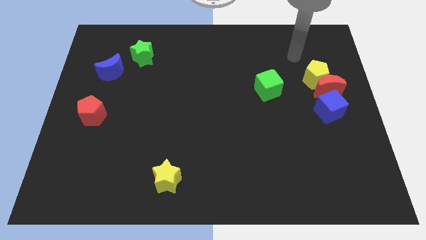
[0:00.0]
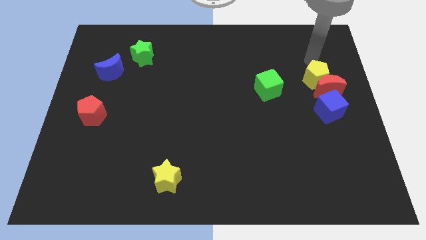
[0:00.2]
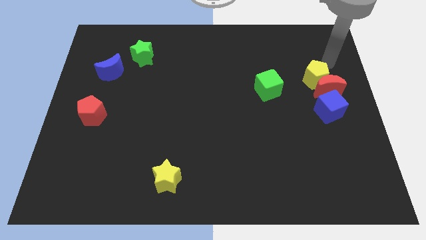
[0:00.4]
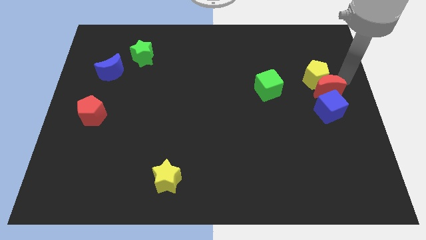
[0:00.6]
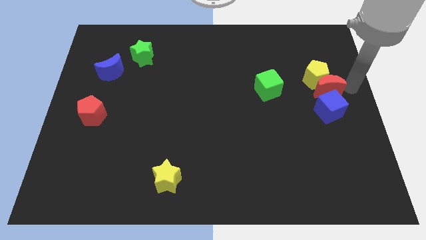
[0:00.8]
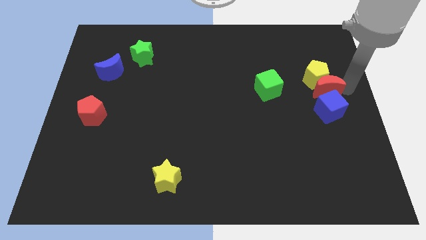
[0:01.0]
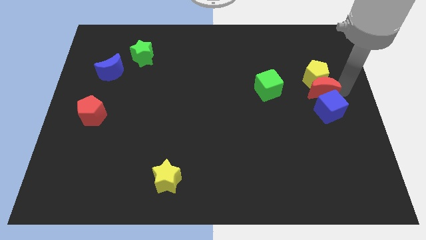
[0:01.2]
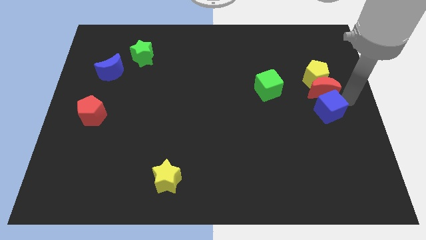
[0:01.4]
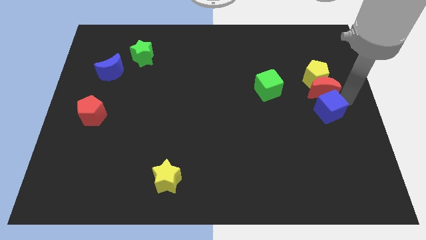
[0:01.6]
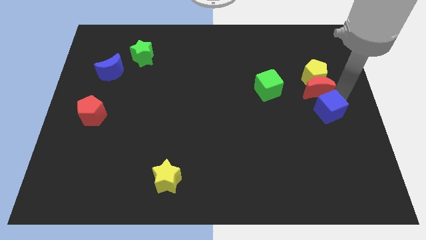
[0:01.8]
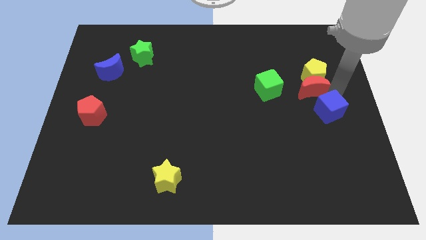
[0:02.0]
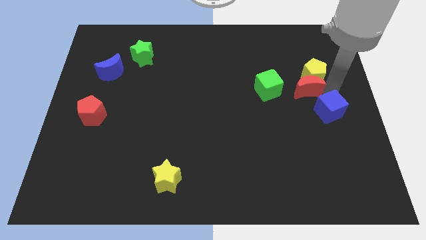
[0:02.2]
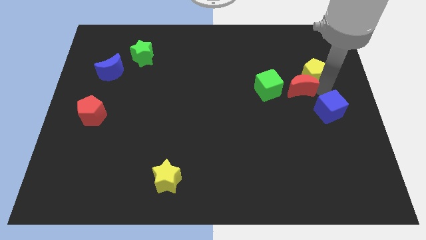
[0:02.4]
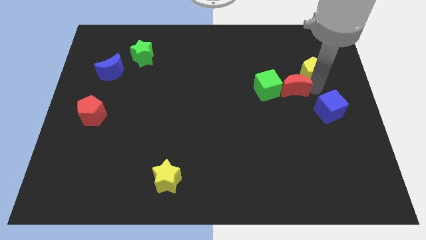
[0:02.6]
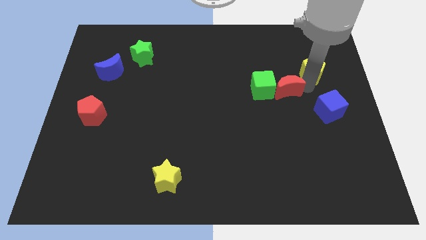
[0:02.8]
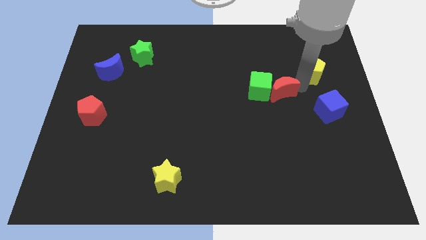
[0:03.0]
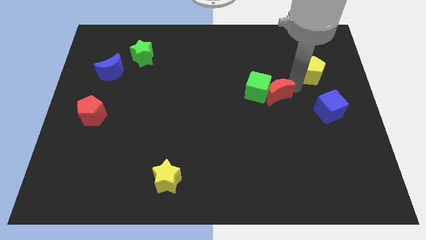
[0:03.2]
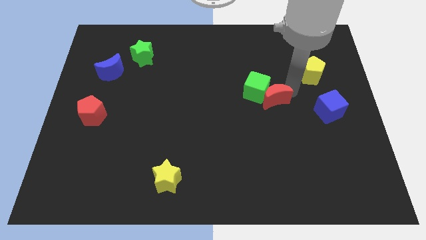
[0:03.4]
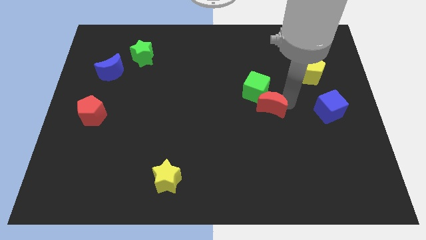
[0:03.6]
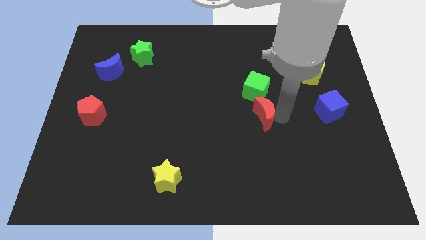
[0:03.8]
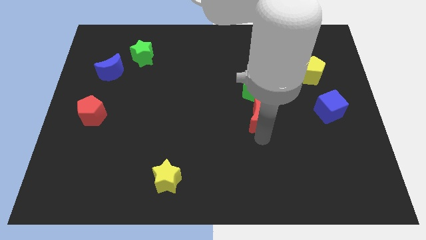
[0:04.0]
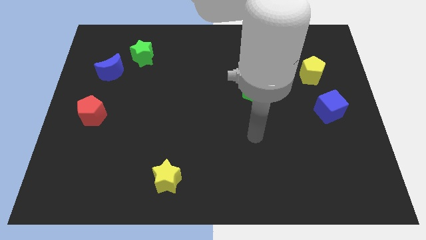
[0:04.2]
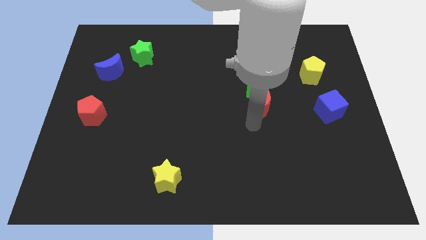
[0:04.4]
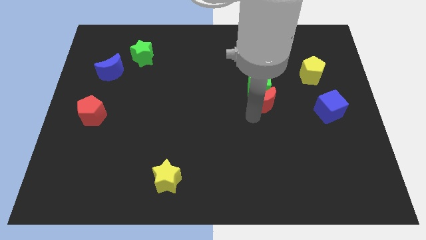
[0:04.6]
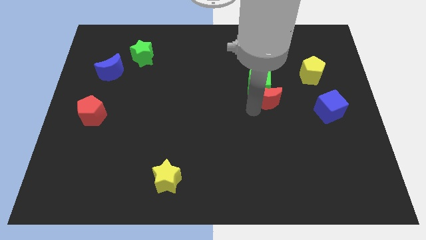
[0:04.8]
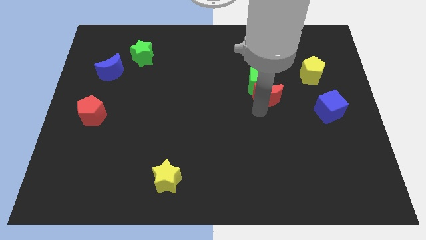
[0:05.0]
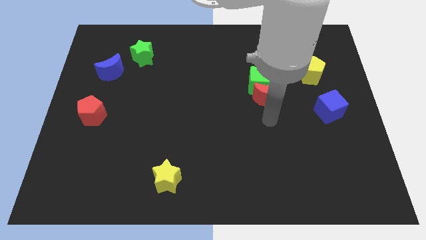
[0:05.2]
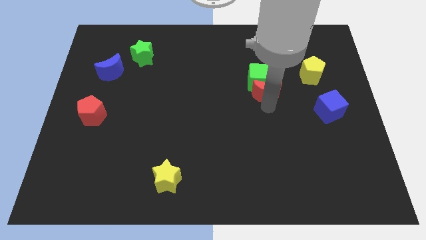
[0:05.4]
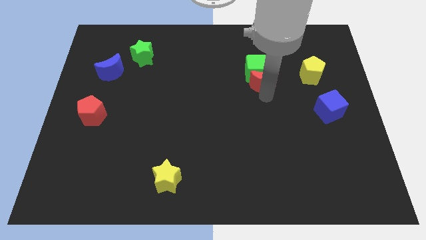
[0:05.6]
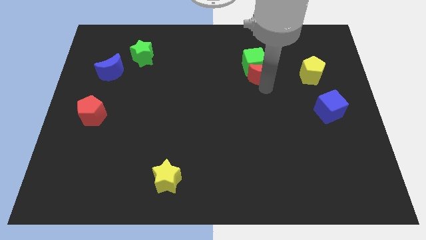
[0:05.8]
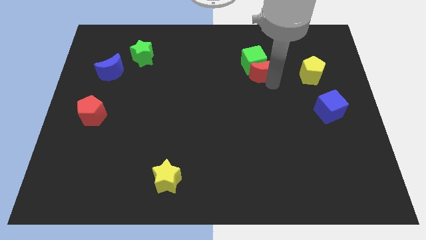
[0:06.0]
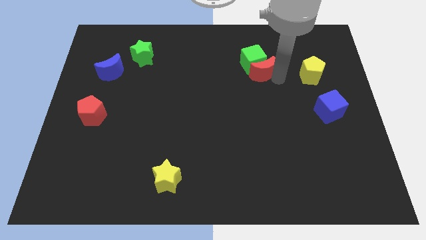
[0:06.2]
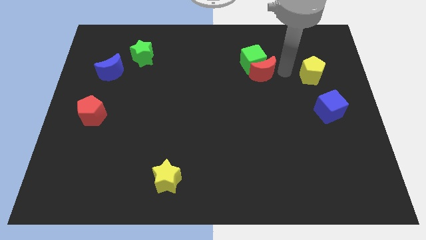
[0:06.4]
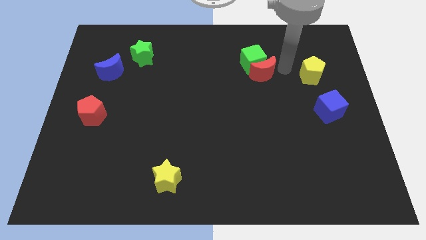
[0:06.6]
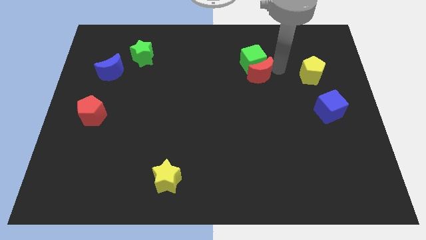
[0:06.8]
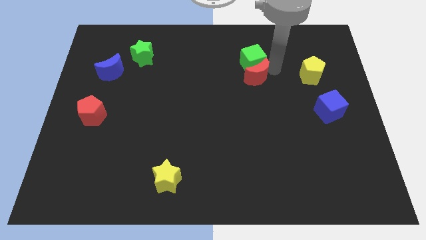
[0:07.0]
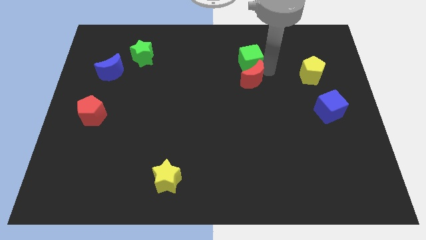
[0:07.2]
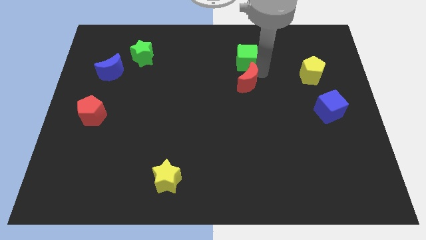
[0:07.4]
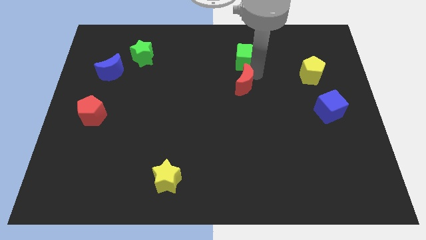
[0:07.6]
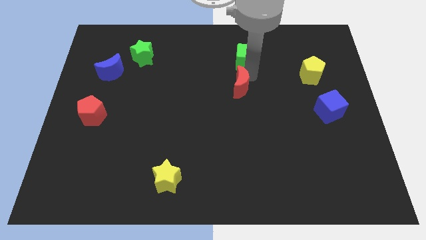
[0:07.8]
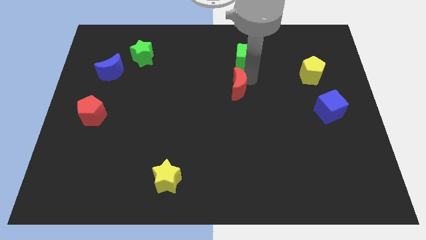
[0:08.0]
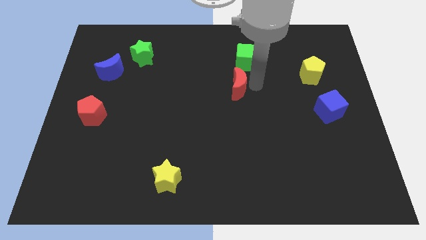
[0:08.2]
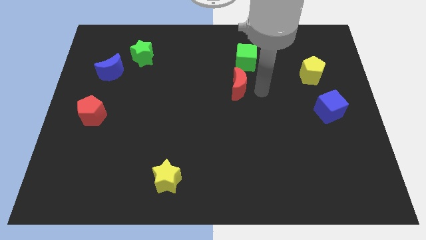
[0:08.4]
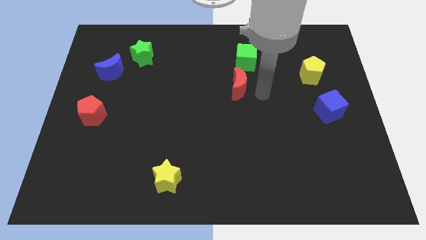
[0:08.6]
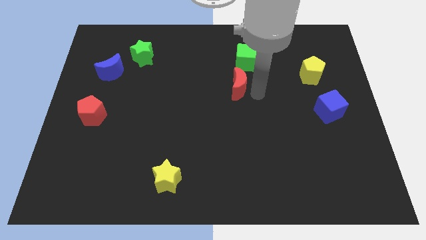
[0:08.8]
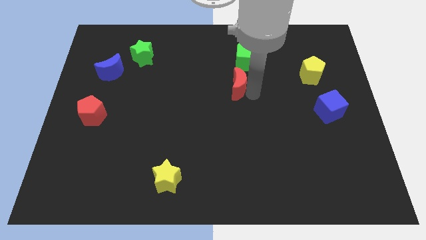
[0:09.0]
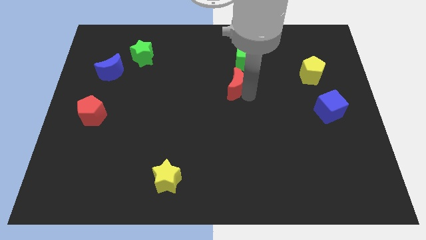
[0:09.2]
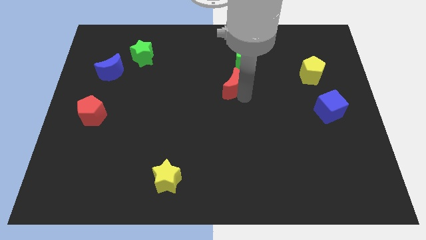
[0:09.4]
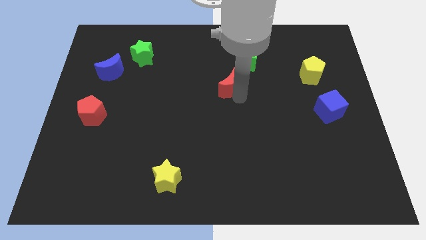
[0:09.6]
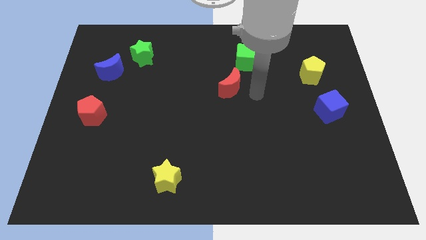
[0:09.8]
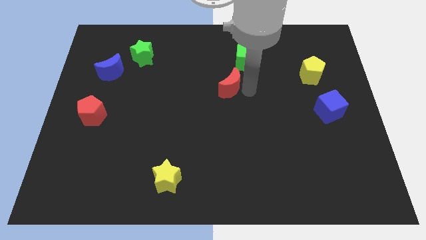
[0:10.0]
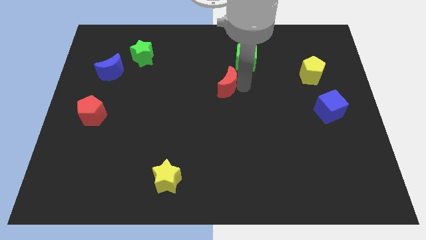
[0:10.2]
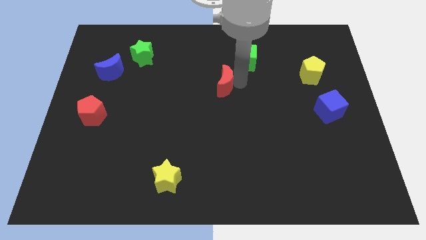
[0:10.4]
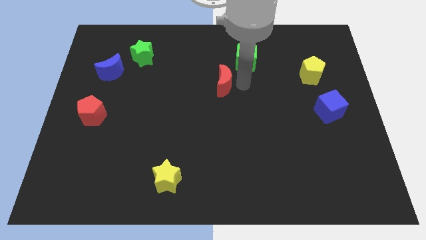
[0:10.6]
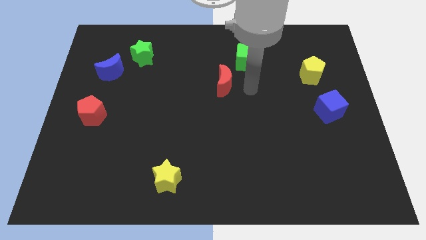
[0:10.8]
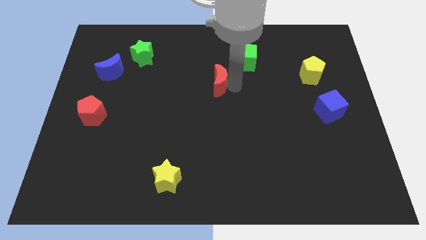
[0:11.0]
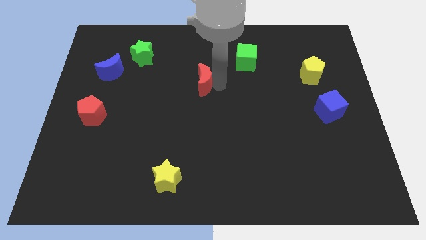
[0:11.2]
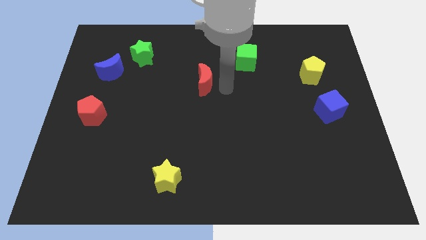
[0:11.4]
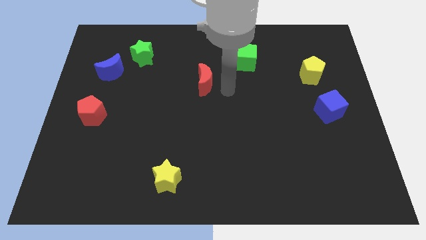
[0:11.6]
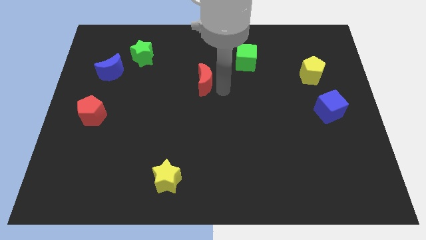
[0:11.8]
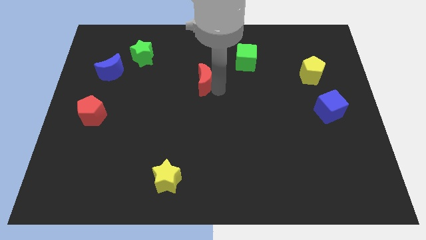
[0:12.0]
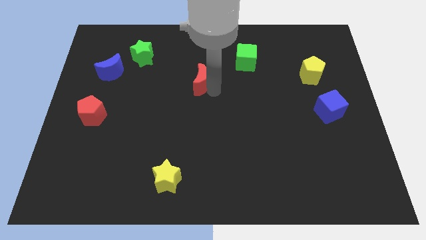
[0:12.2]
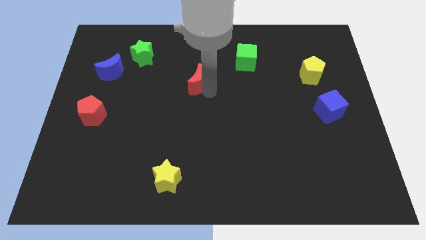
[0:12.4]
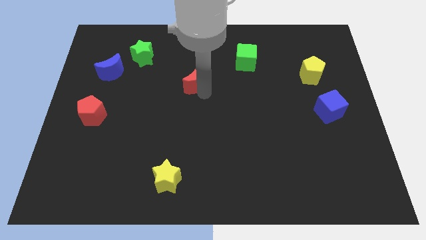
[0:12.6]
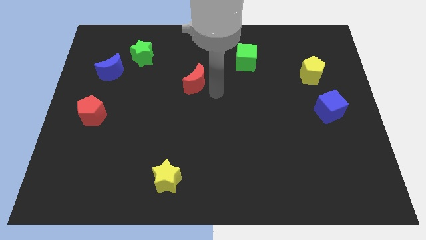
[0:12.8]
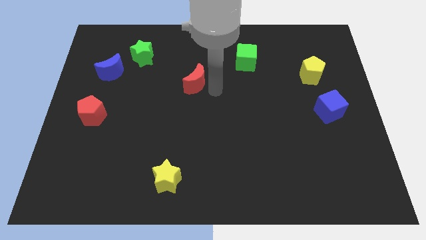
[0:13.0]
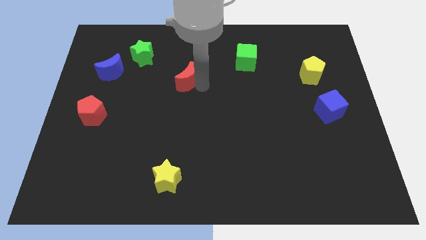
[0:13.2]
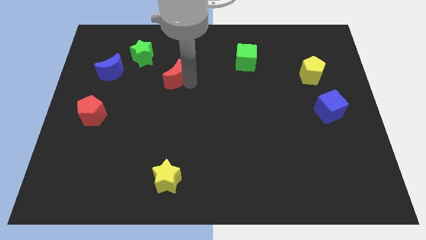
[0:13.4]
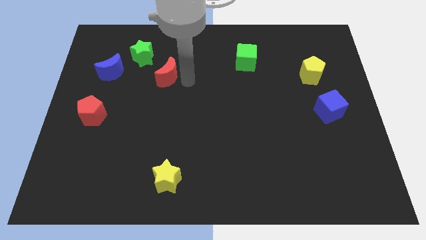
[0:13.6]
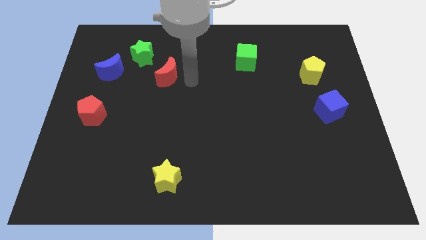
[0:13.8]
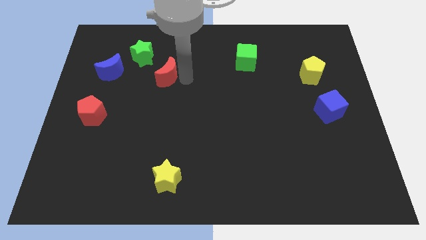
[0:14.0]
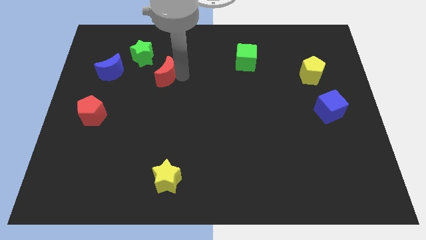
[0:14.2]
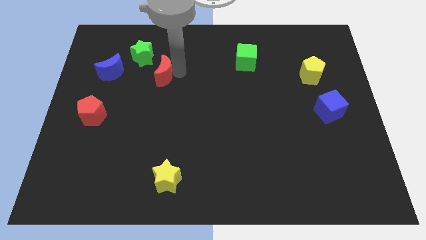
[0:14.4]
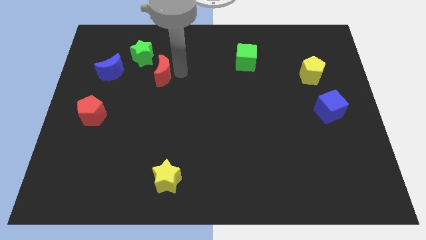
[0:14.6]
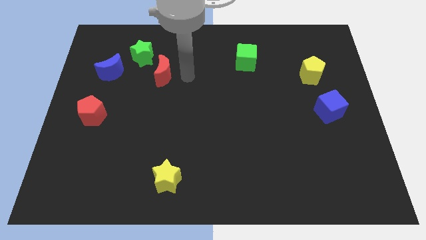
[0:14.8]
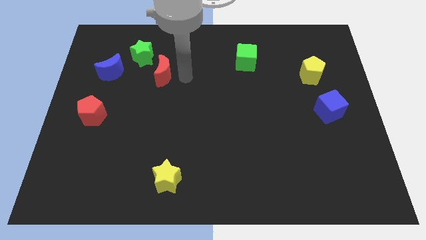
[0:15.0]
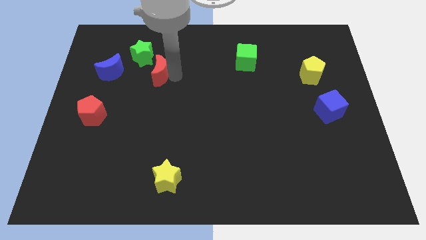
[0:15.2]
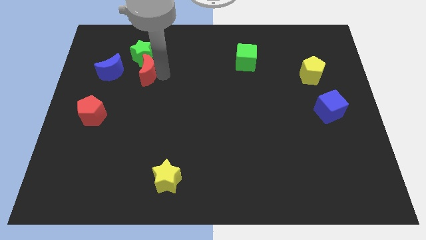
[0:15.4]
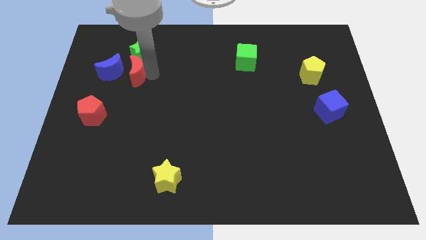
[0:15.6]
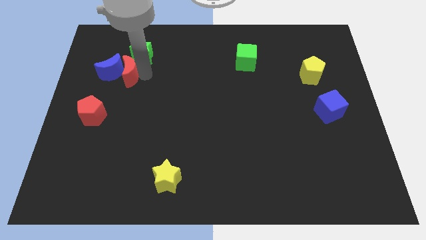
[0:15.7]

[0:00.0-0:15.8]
slide the red moon to the blue moon
